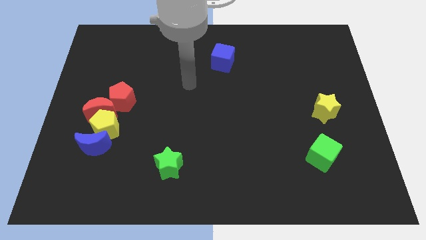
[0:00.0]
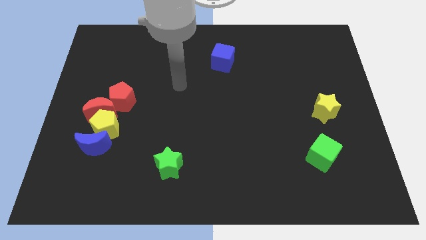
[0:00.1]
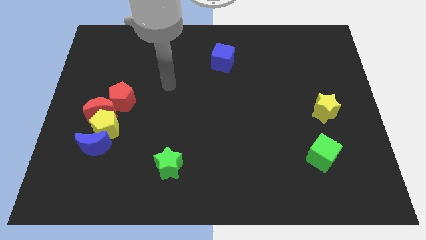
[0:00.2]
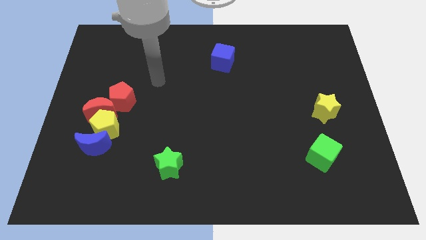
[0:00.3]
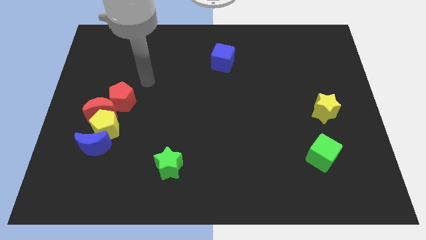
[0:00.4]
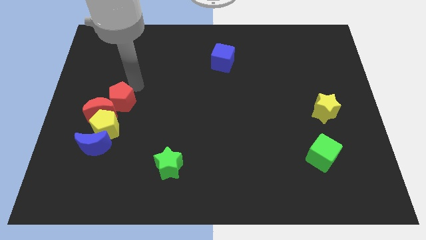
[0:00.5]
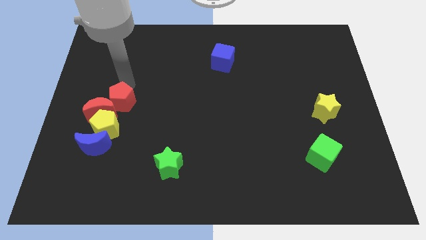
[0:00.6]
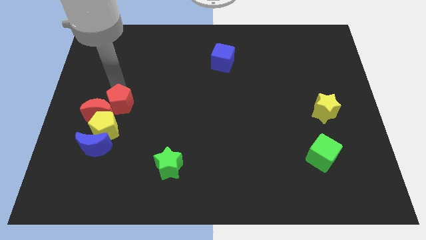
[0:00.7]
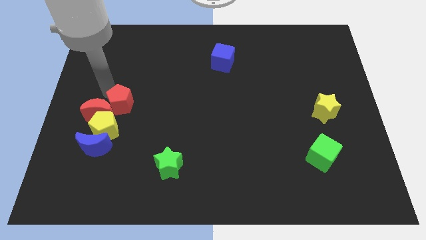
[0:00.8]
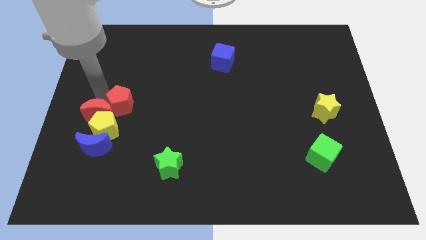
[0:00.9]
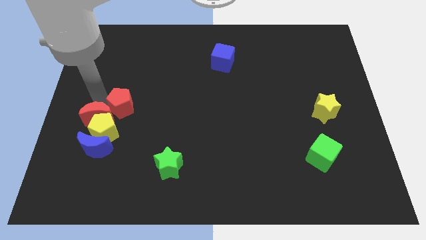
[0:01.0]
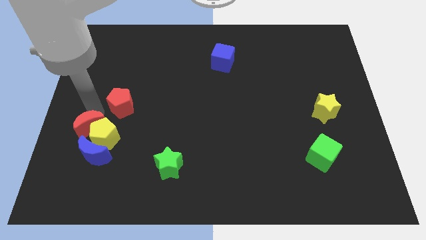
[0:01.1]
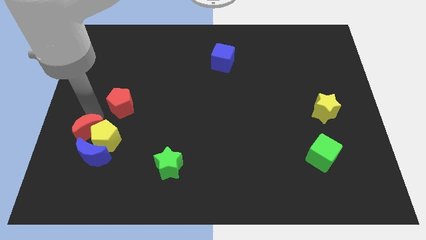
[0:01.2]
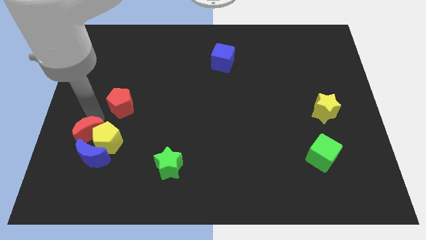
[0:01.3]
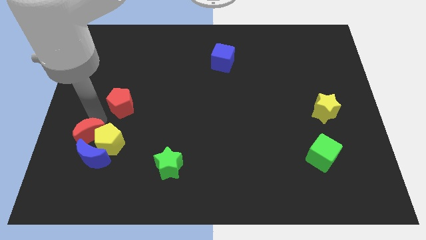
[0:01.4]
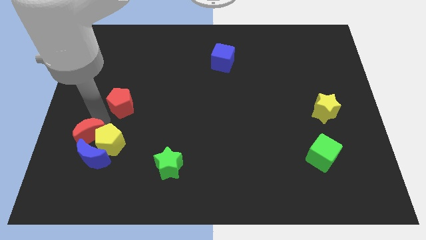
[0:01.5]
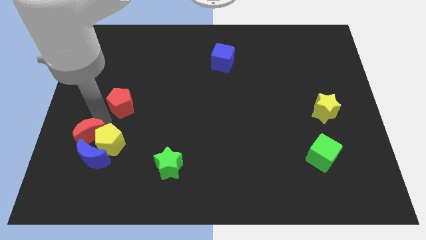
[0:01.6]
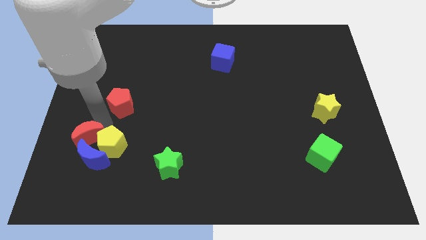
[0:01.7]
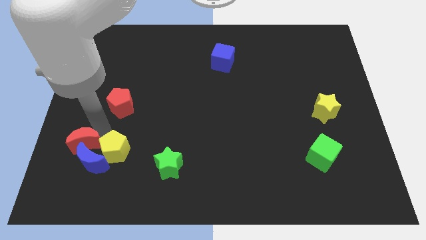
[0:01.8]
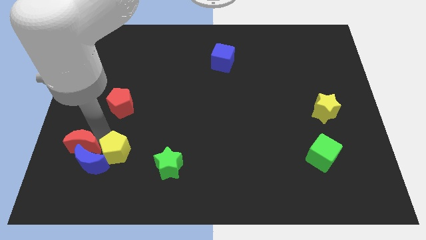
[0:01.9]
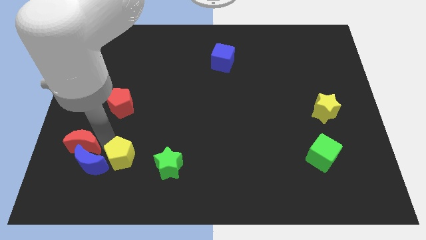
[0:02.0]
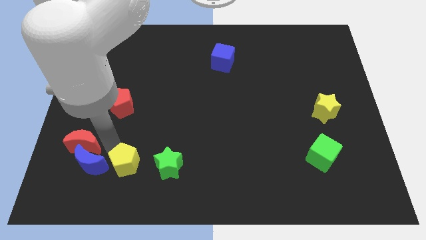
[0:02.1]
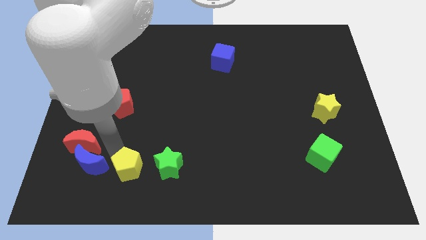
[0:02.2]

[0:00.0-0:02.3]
move the yellow pentagon away from the group of blocks

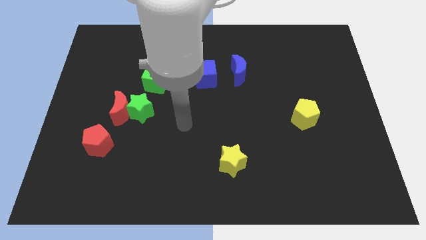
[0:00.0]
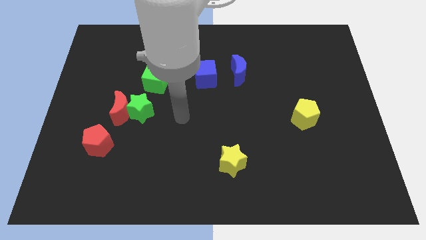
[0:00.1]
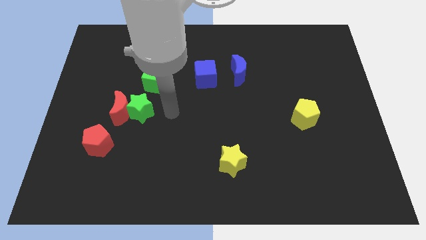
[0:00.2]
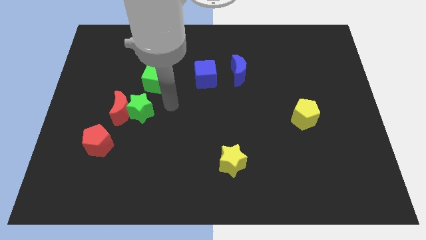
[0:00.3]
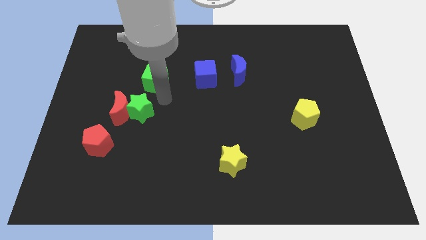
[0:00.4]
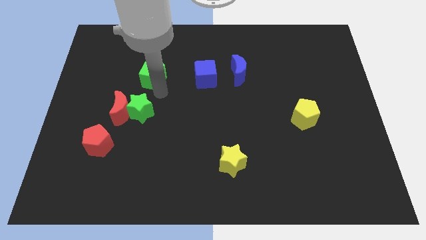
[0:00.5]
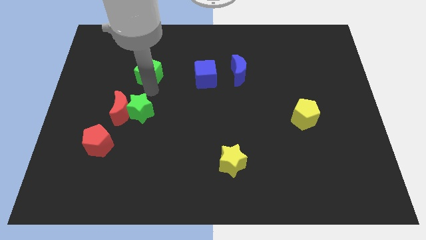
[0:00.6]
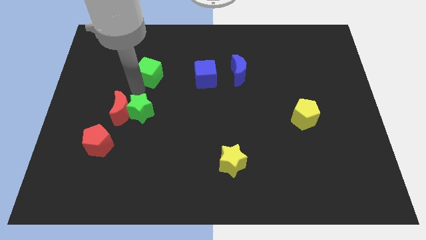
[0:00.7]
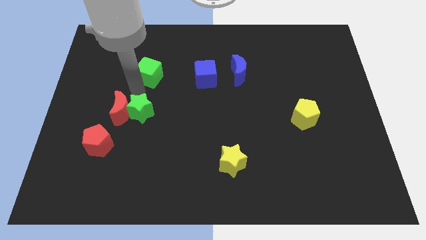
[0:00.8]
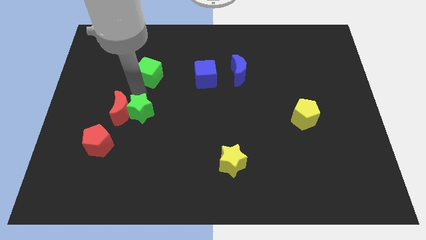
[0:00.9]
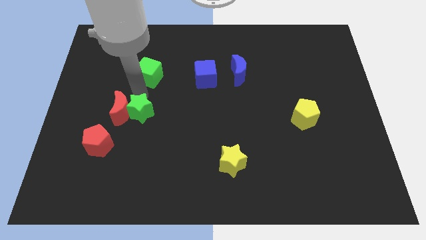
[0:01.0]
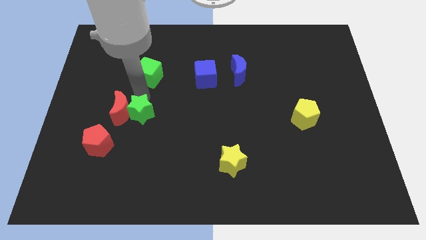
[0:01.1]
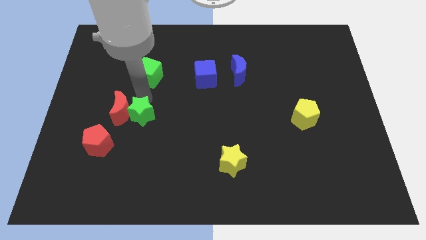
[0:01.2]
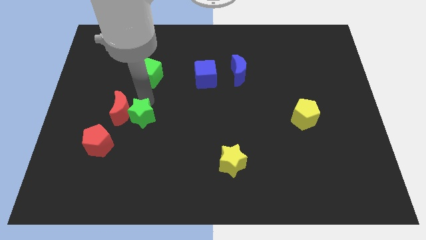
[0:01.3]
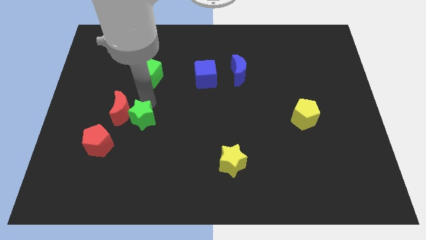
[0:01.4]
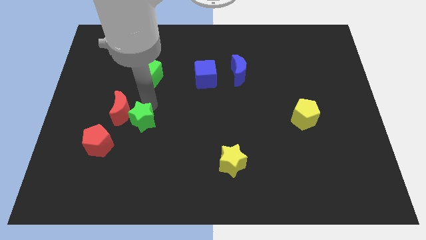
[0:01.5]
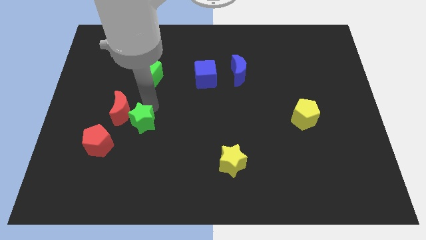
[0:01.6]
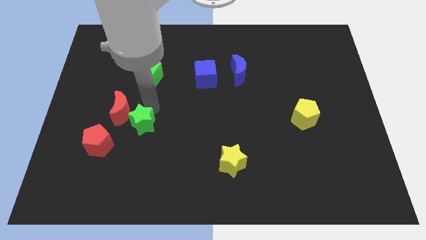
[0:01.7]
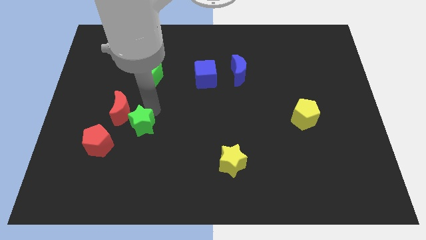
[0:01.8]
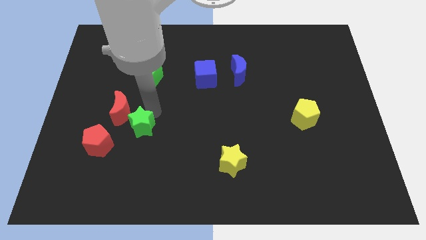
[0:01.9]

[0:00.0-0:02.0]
separate the green star from the red moon and green cube

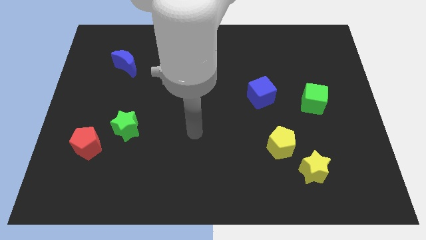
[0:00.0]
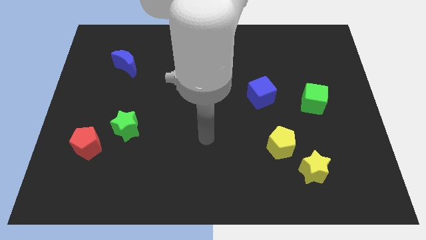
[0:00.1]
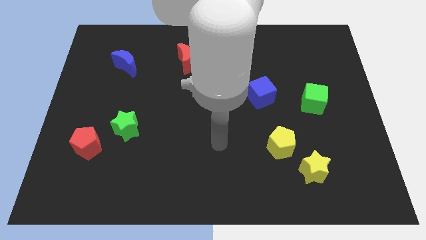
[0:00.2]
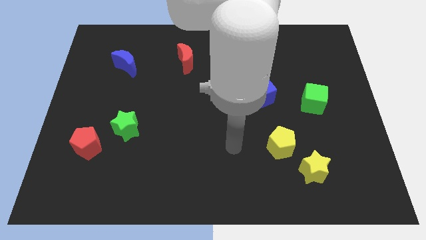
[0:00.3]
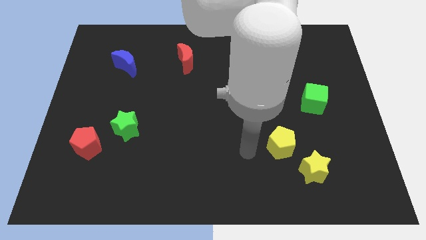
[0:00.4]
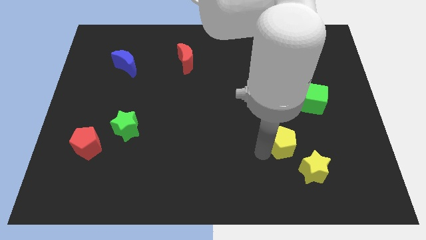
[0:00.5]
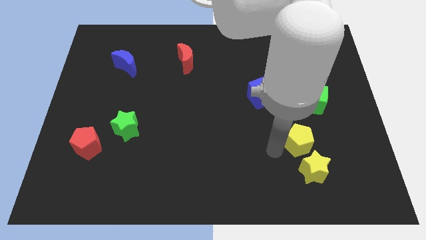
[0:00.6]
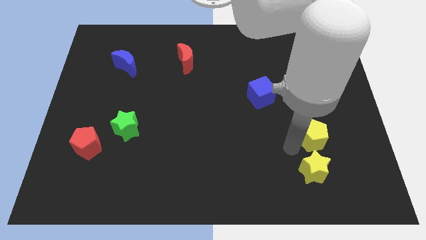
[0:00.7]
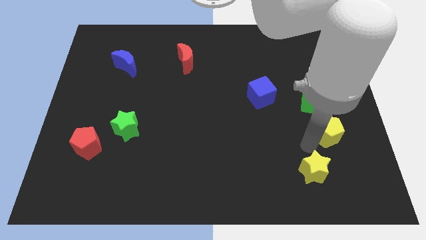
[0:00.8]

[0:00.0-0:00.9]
pull the yellow star apart from the yellow pentagon

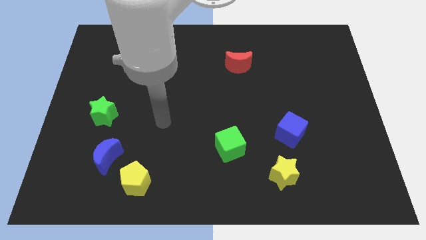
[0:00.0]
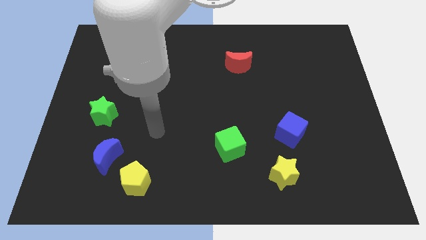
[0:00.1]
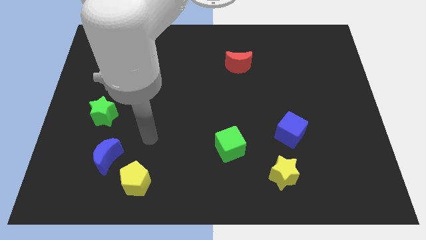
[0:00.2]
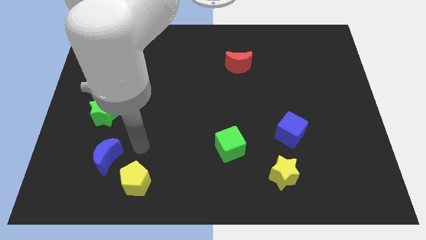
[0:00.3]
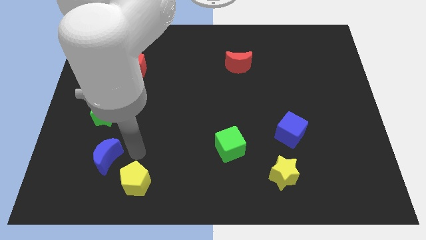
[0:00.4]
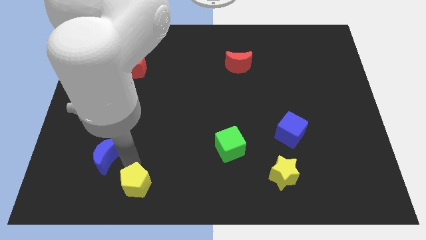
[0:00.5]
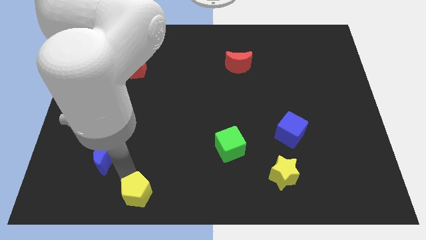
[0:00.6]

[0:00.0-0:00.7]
separate the blue moon from the yellow pentagon

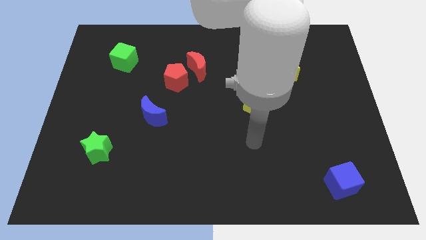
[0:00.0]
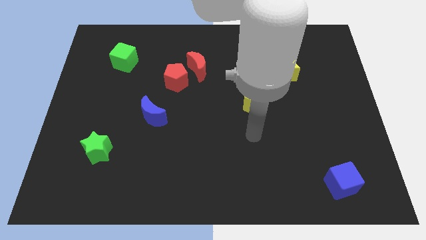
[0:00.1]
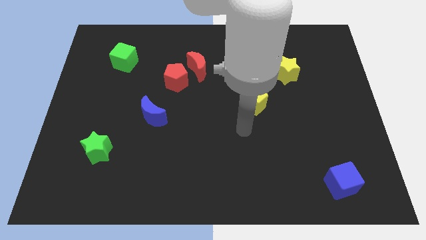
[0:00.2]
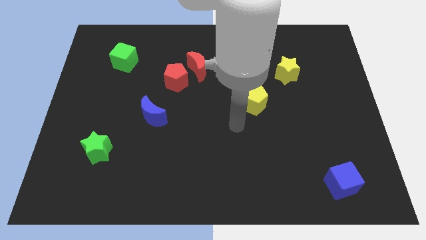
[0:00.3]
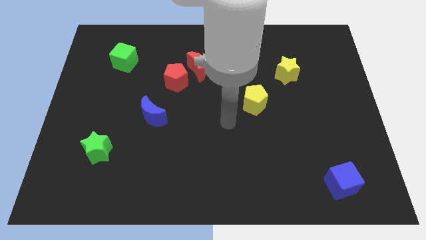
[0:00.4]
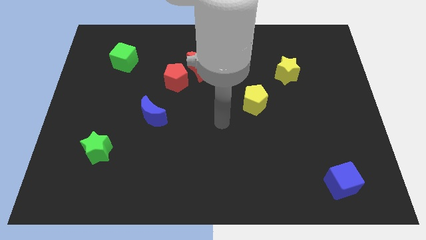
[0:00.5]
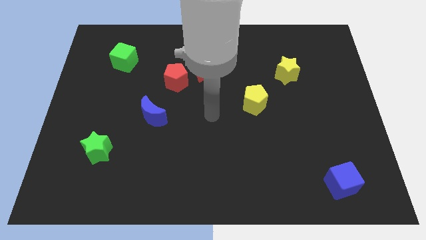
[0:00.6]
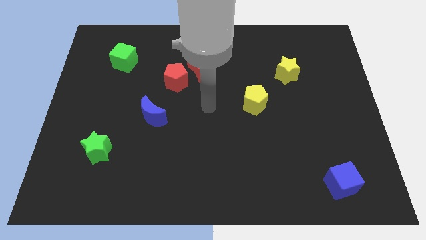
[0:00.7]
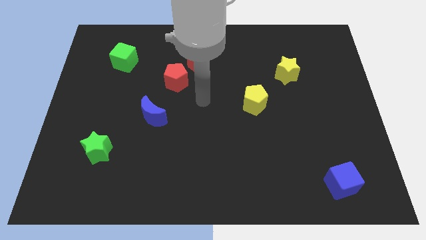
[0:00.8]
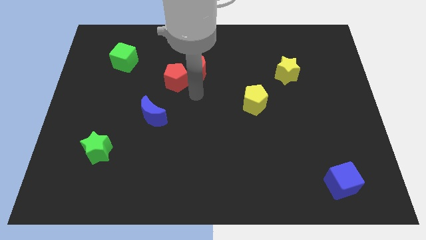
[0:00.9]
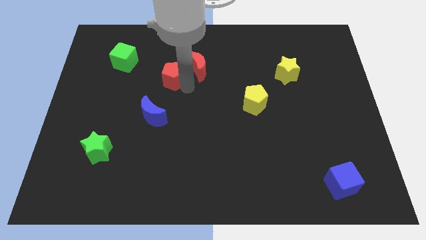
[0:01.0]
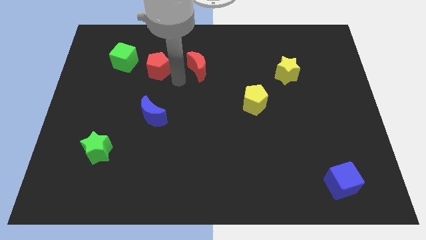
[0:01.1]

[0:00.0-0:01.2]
pull the red moon apart from the red pentagon

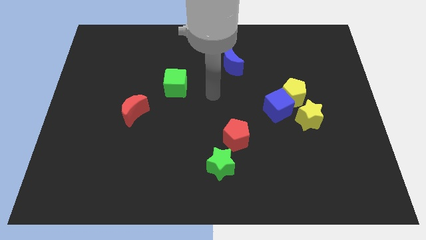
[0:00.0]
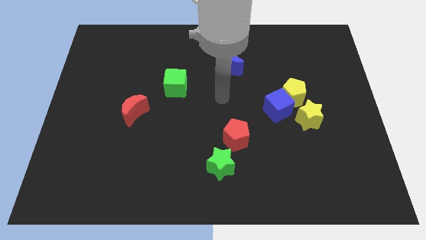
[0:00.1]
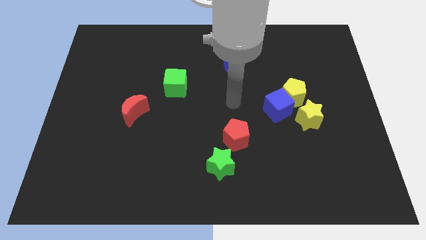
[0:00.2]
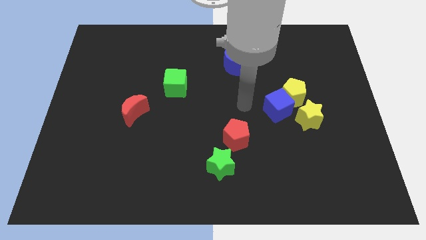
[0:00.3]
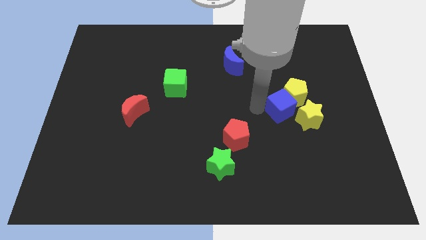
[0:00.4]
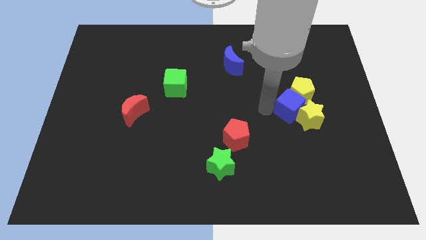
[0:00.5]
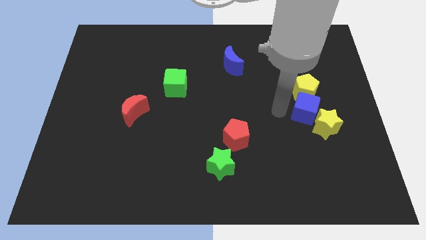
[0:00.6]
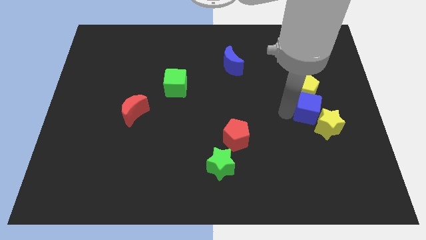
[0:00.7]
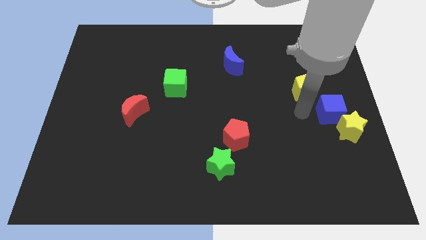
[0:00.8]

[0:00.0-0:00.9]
pull the yellow pentagon apart from the blue cube and yellow star

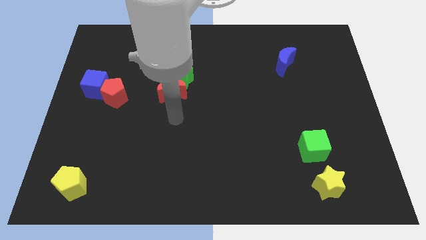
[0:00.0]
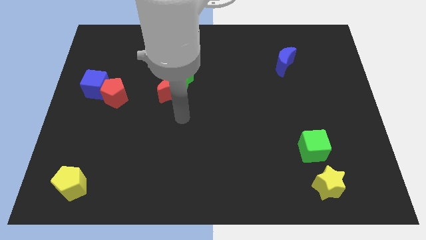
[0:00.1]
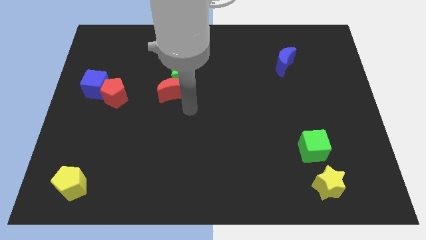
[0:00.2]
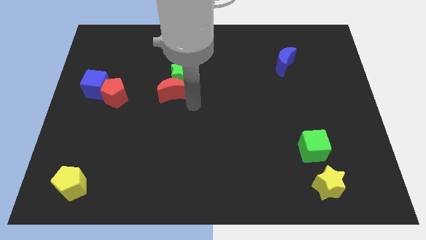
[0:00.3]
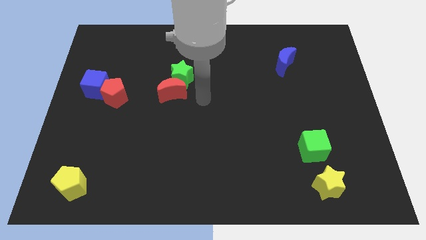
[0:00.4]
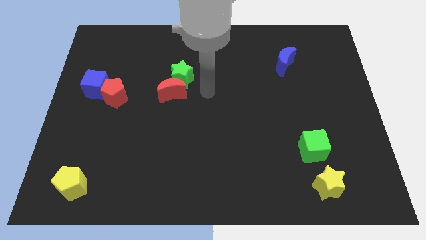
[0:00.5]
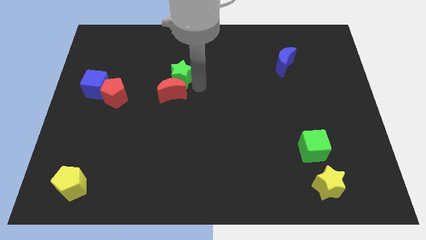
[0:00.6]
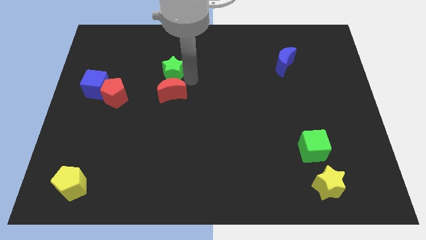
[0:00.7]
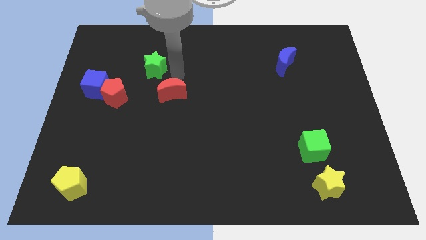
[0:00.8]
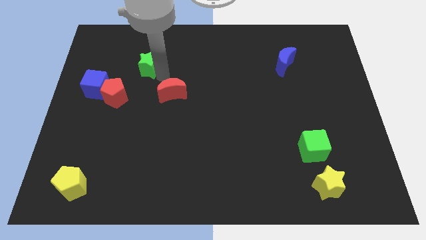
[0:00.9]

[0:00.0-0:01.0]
move the red moon away from the green star

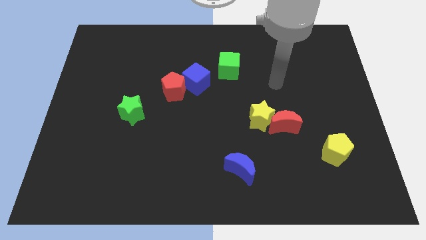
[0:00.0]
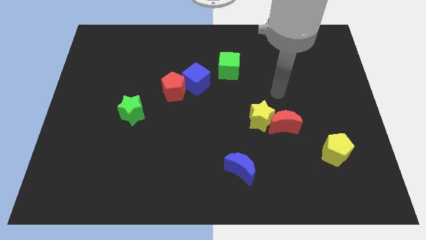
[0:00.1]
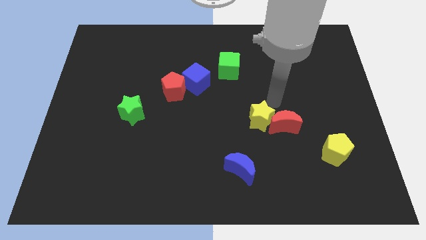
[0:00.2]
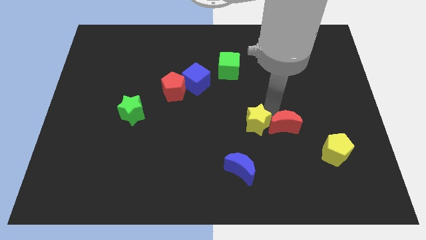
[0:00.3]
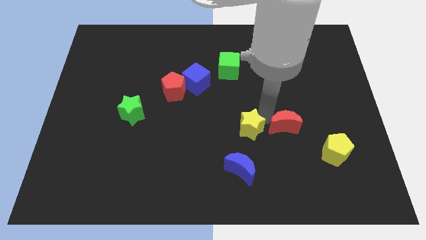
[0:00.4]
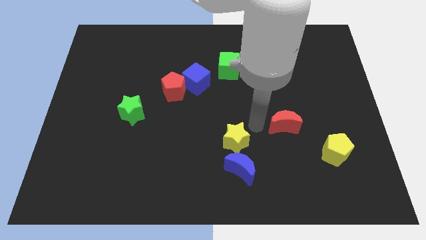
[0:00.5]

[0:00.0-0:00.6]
move the red moon away from the yellow star
